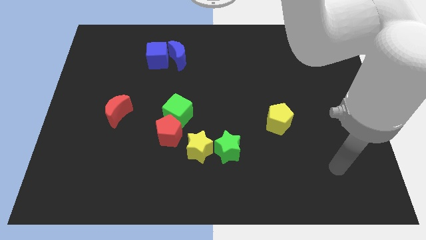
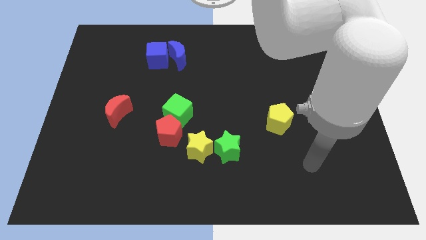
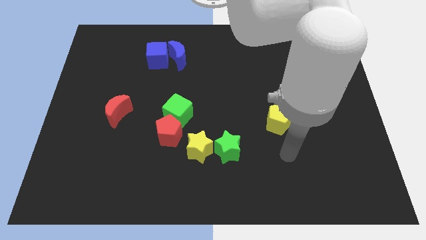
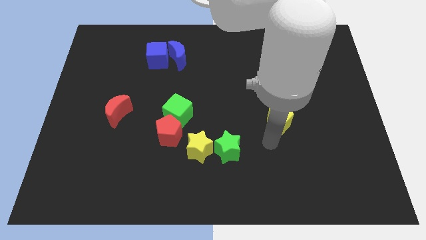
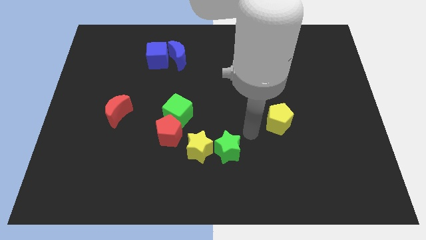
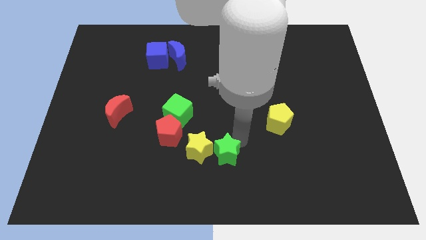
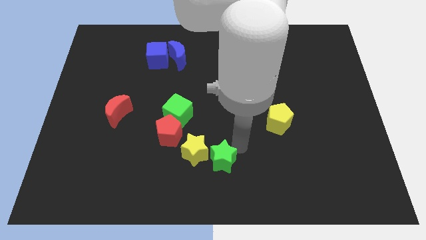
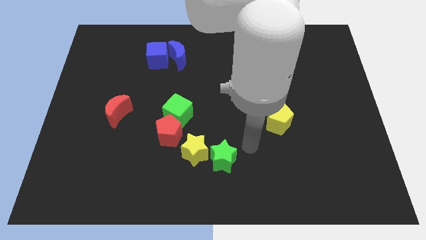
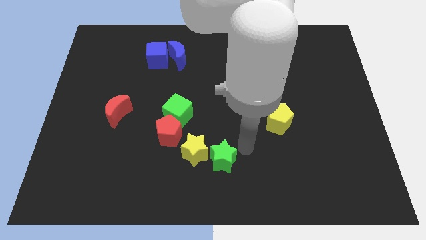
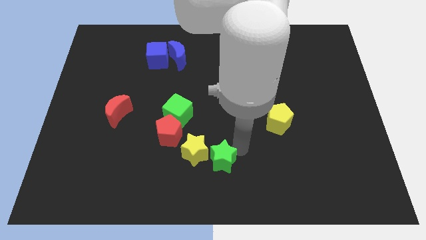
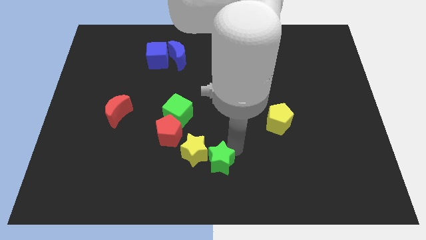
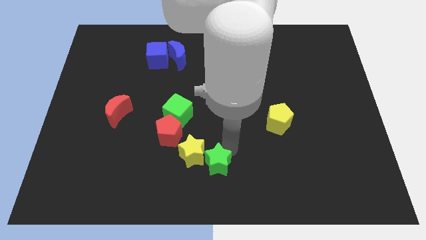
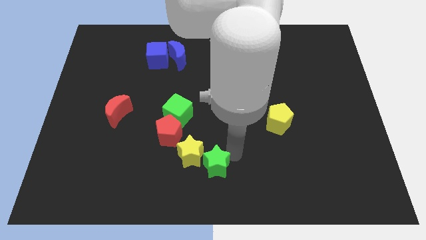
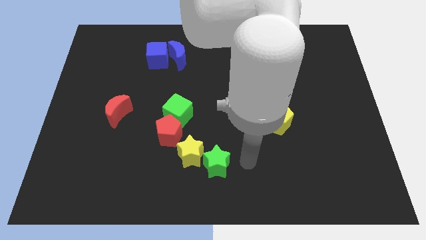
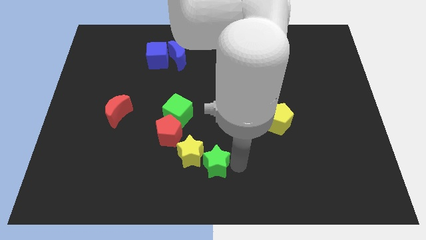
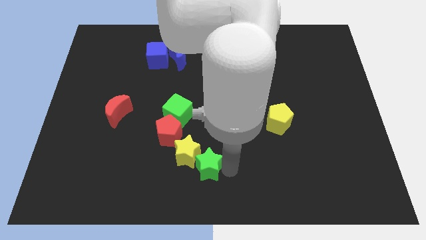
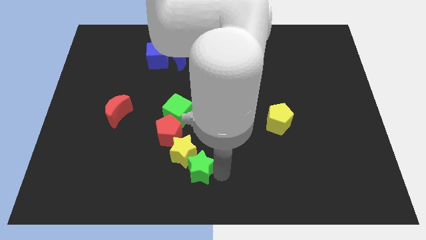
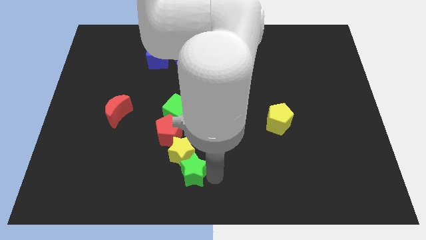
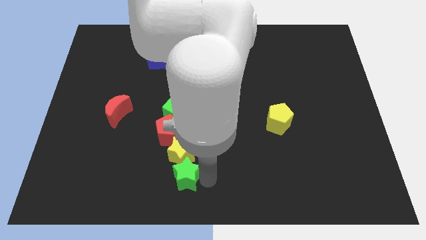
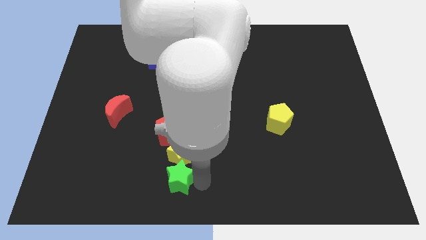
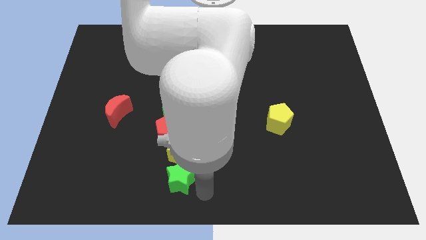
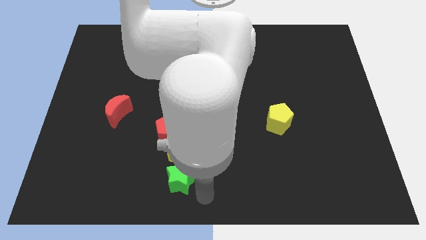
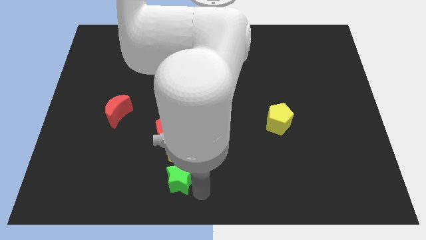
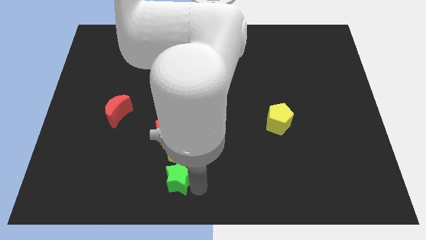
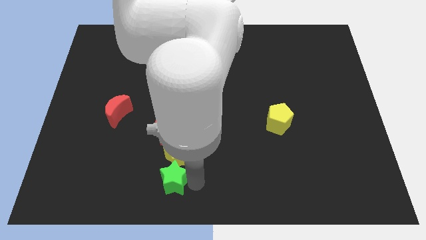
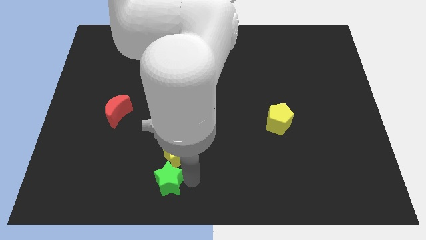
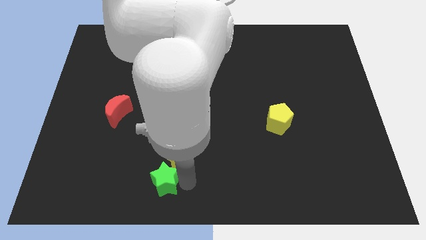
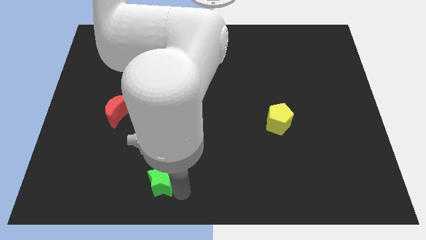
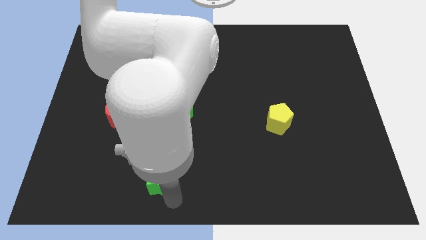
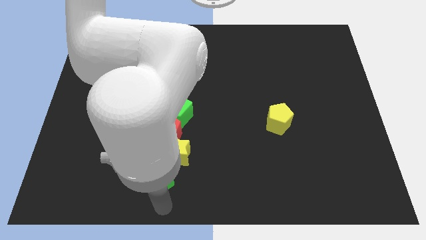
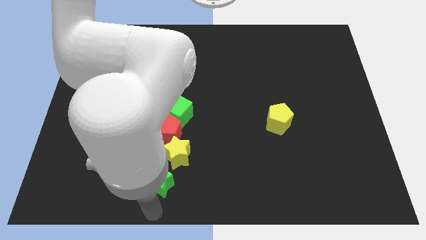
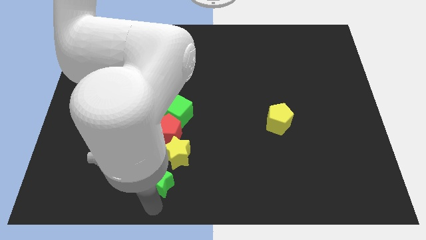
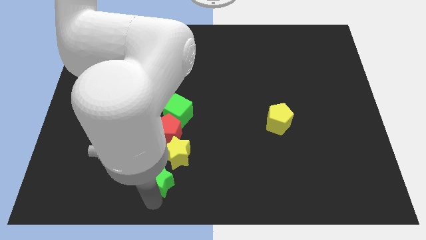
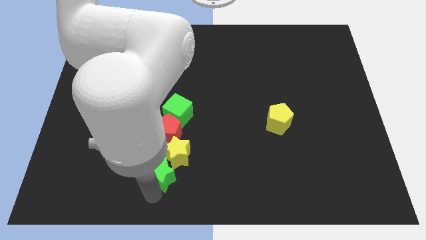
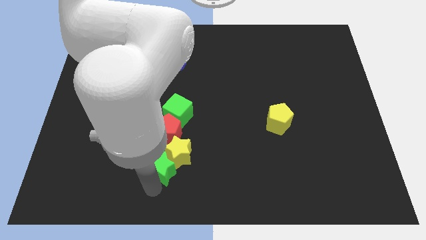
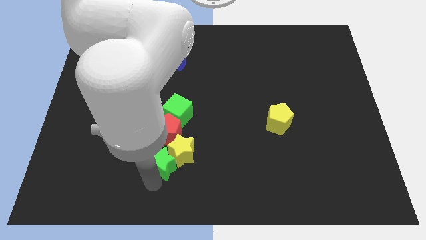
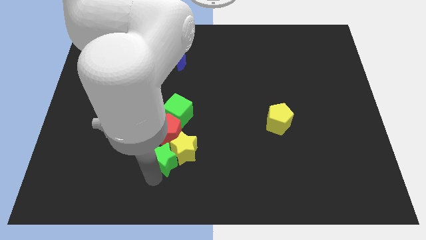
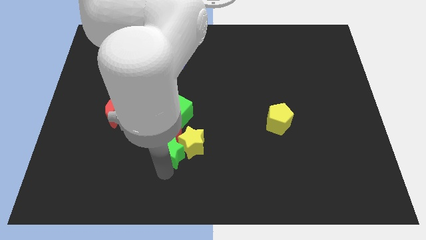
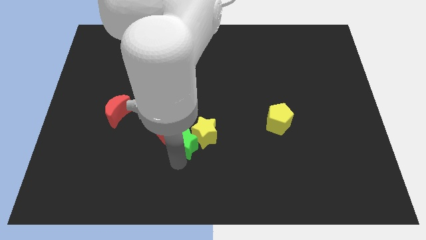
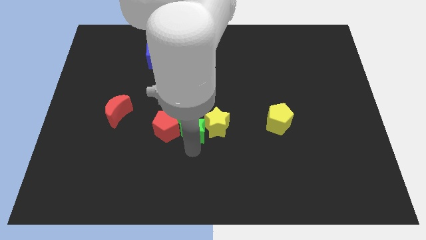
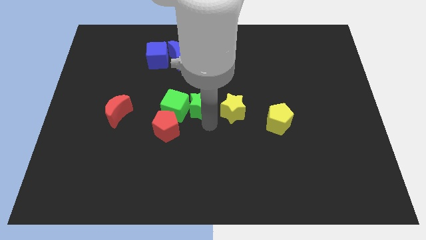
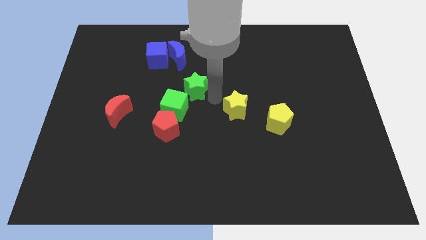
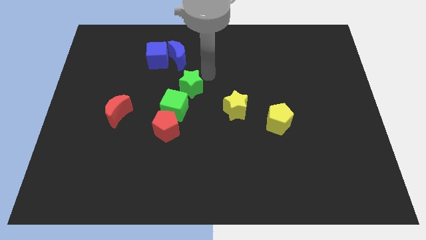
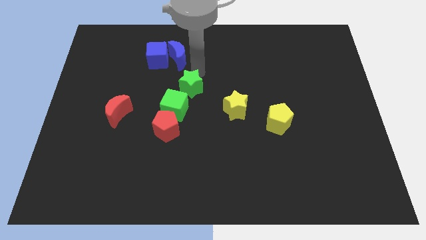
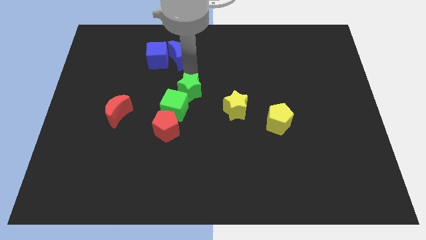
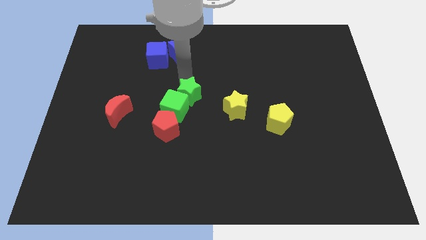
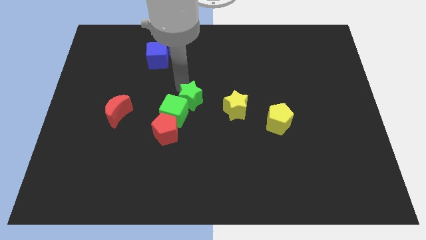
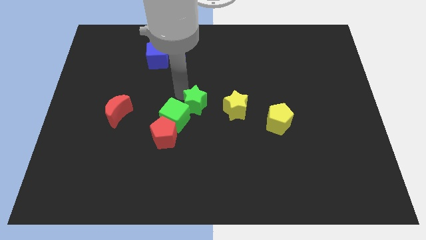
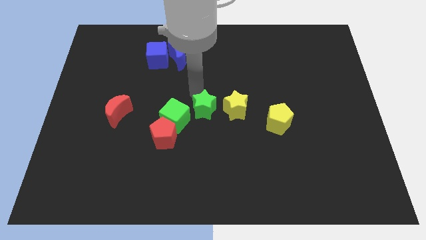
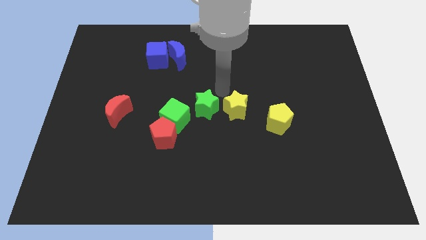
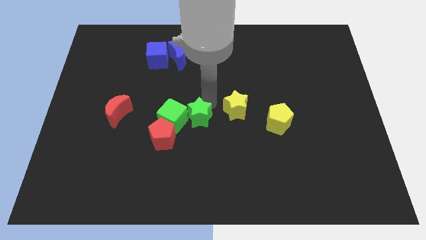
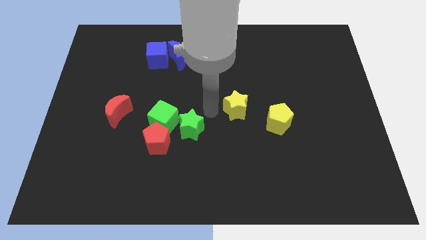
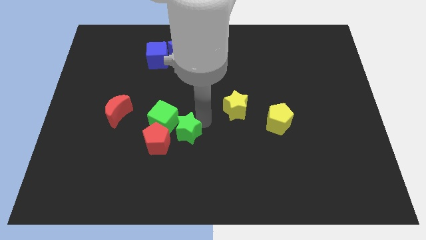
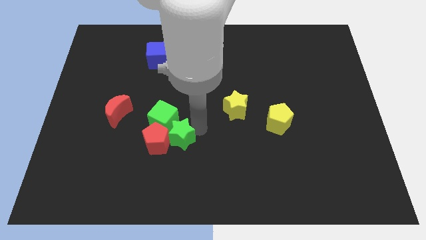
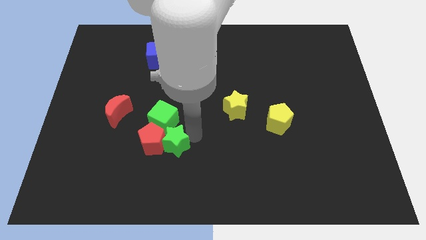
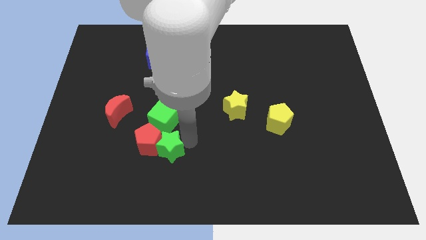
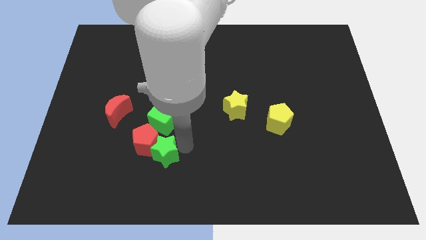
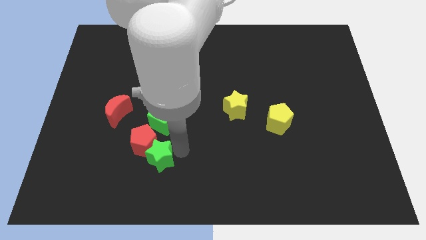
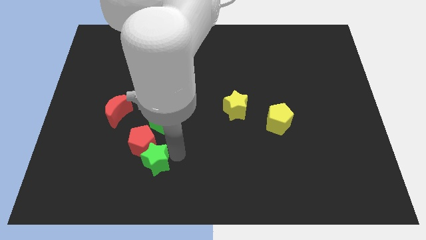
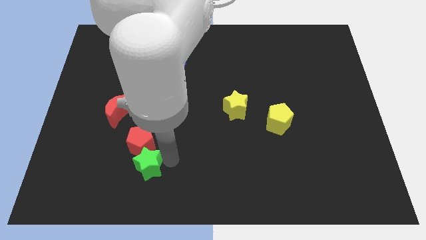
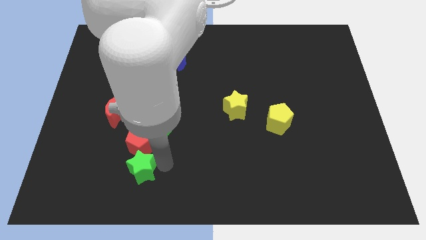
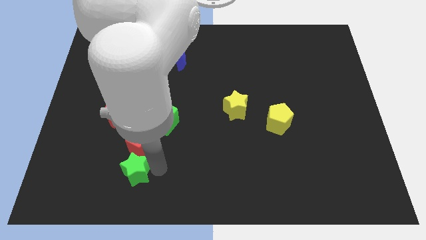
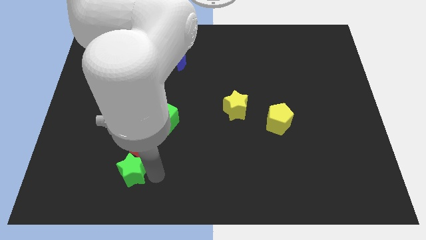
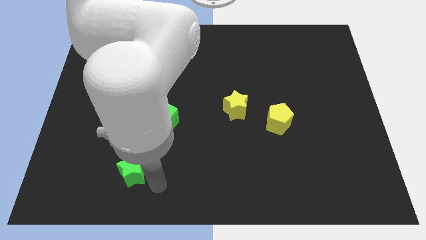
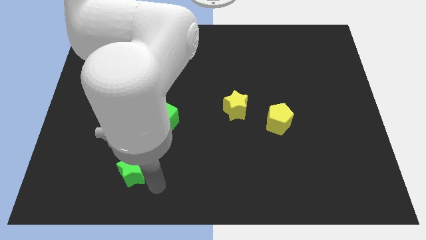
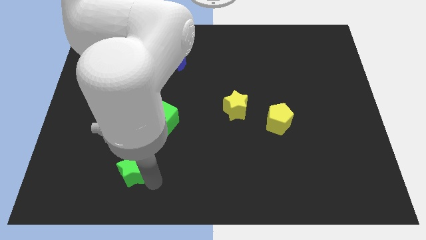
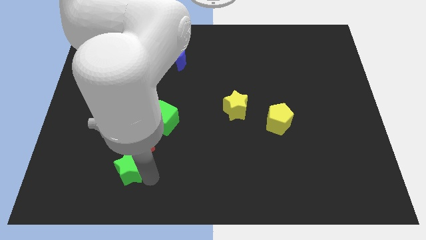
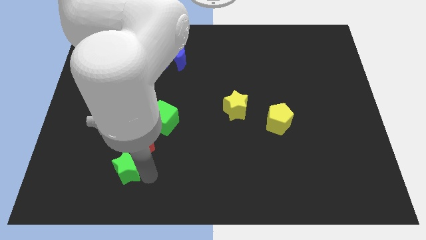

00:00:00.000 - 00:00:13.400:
slide the green star to the left

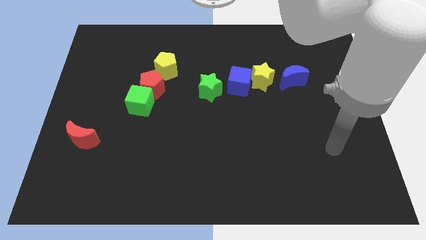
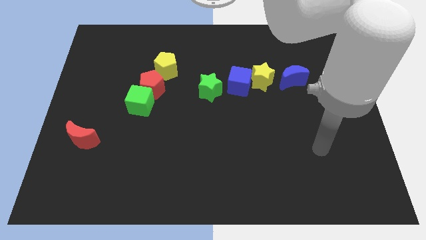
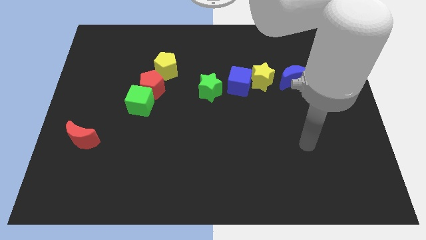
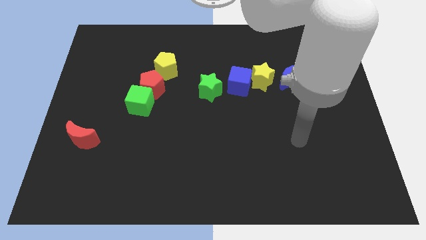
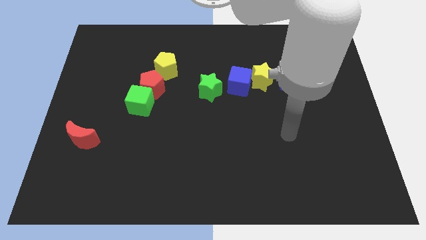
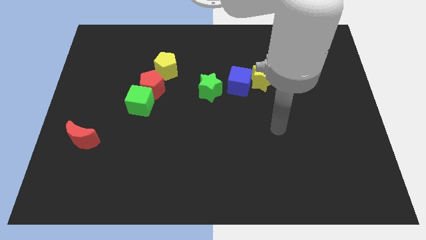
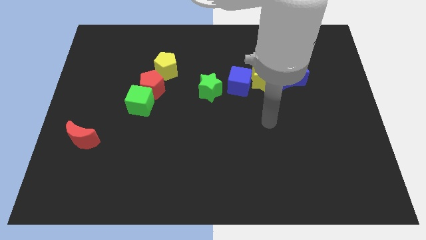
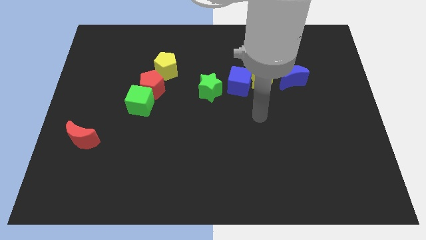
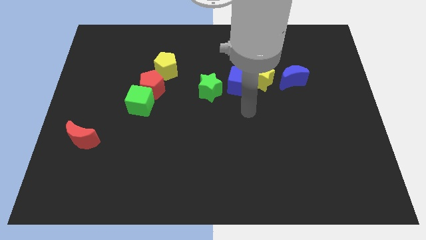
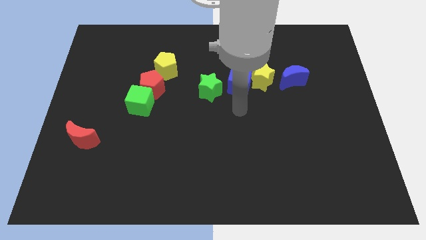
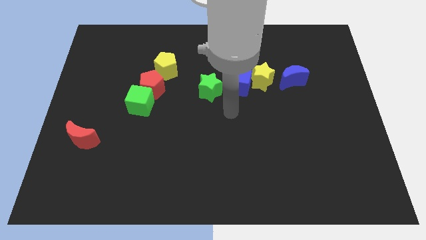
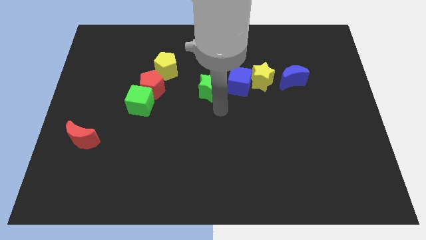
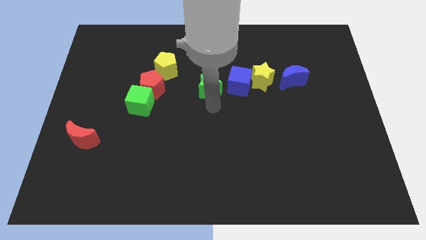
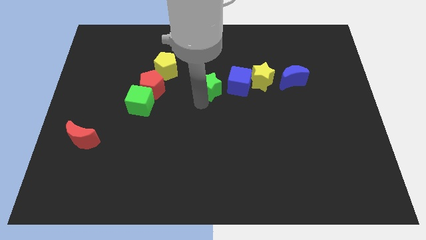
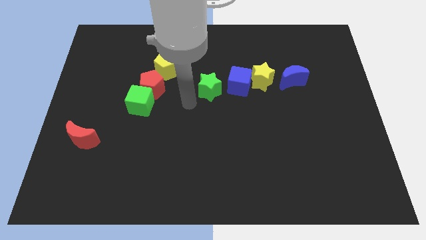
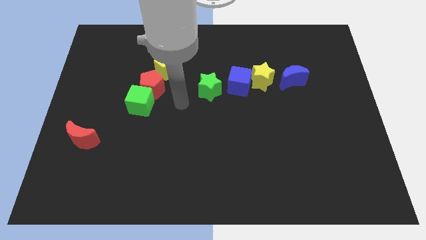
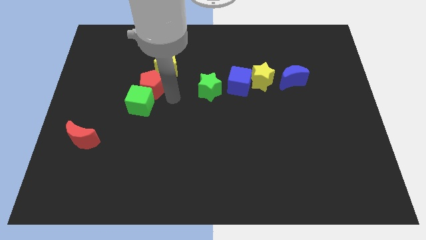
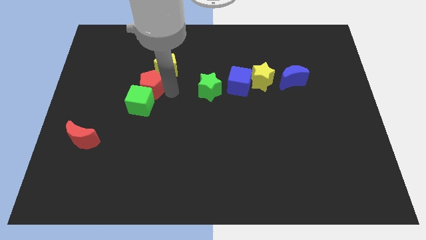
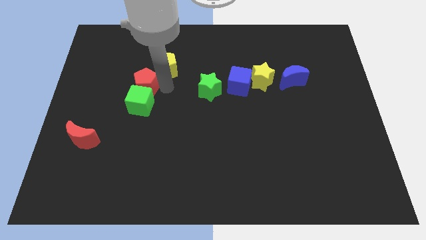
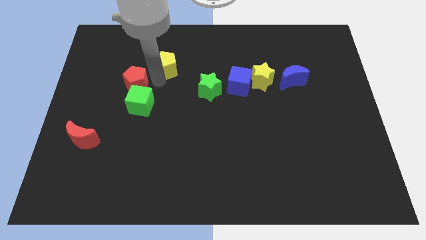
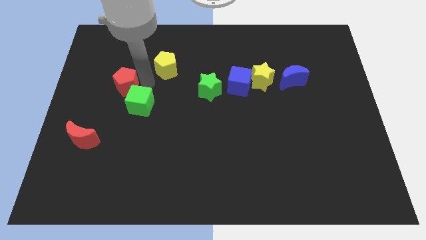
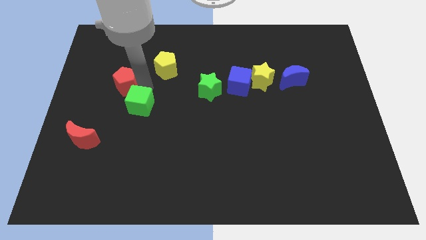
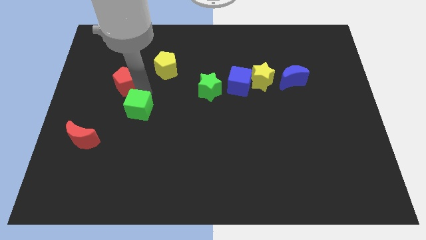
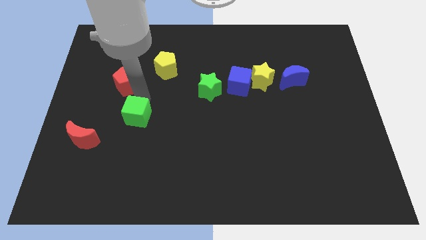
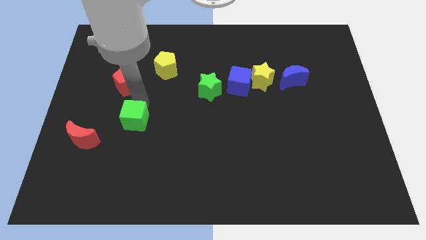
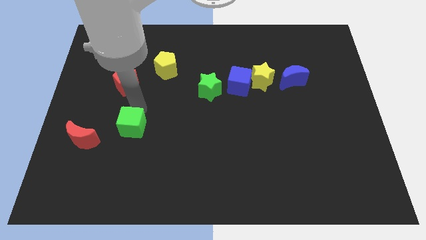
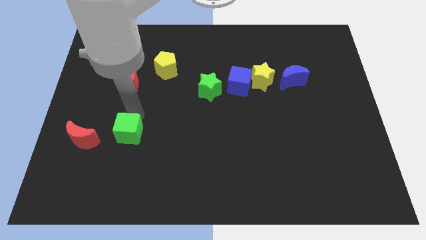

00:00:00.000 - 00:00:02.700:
push the green cube down a bit
